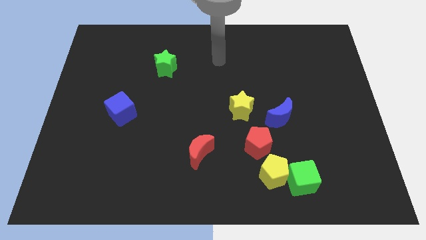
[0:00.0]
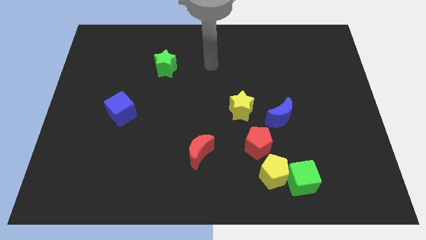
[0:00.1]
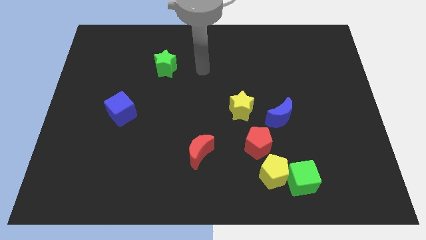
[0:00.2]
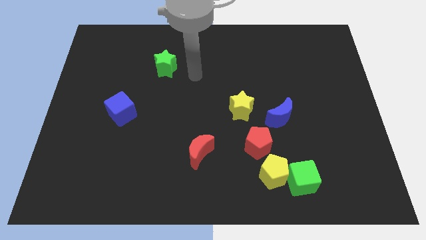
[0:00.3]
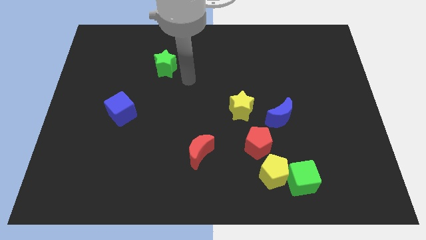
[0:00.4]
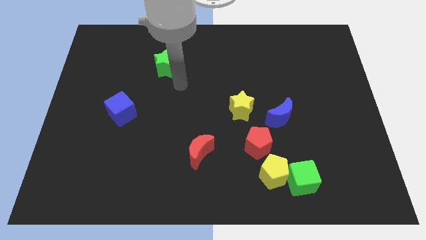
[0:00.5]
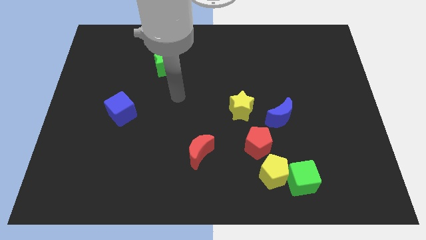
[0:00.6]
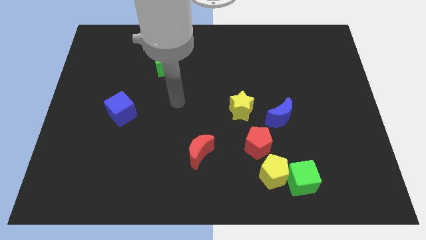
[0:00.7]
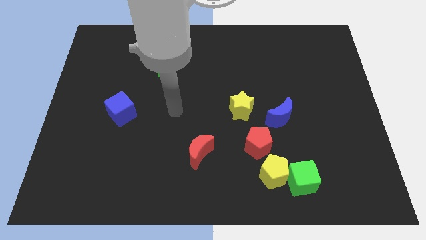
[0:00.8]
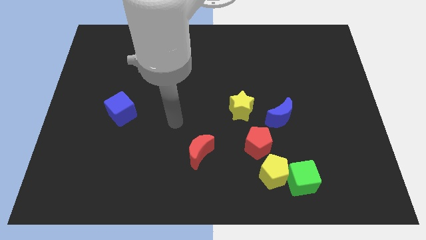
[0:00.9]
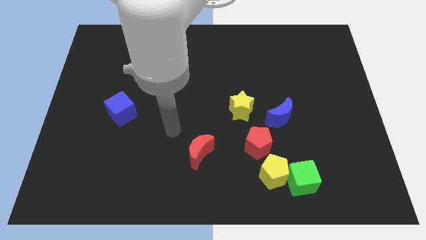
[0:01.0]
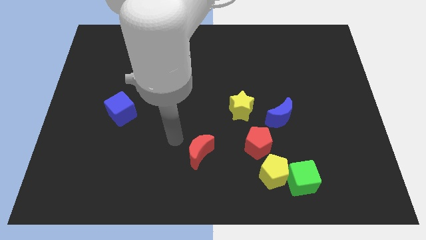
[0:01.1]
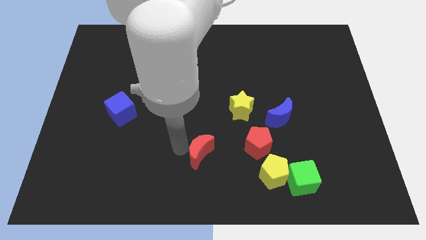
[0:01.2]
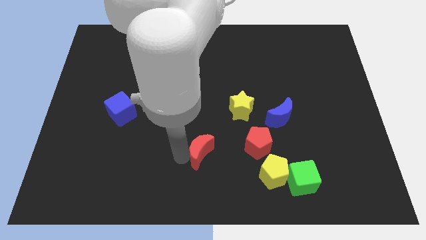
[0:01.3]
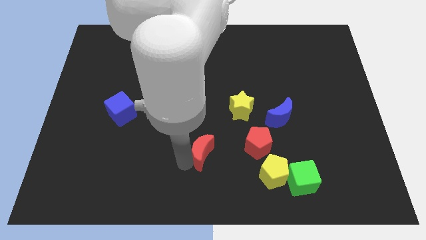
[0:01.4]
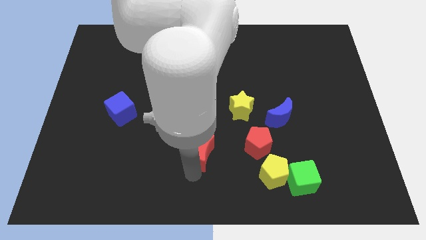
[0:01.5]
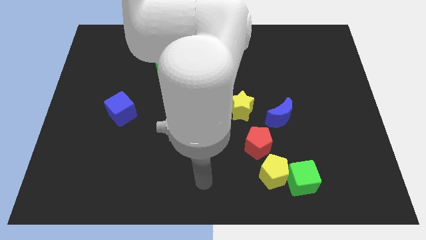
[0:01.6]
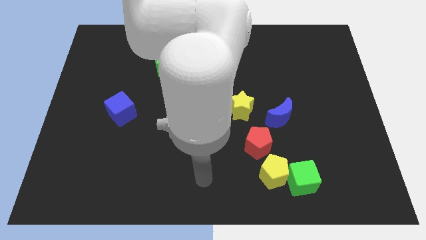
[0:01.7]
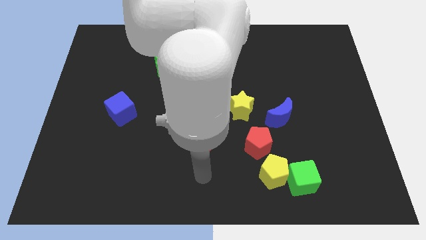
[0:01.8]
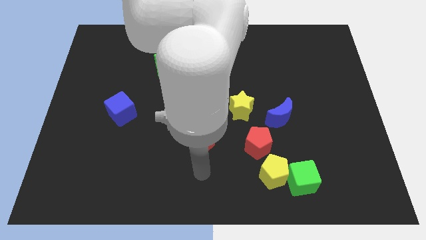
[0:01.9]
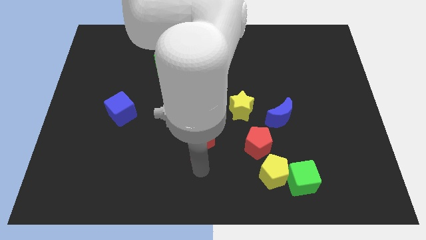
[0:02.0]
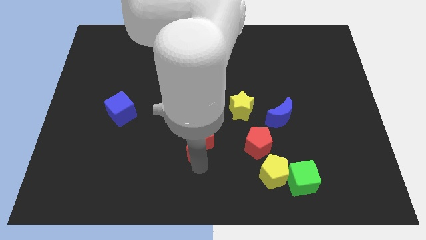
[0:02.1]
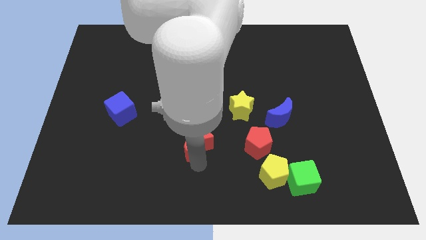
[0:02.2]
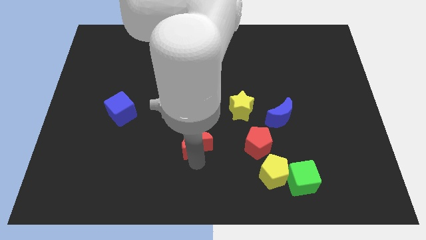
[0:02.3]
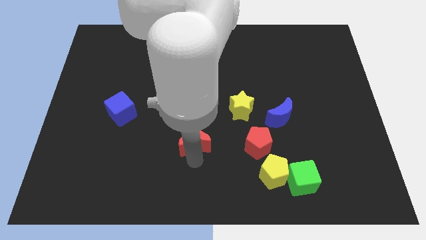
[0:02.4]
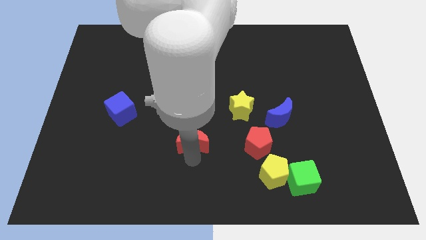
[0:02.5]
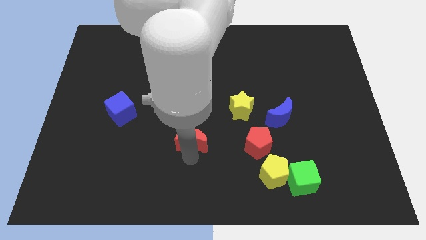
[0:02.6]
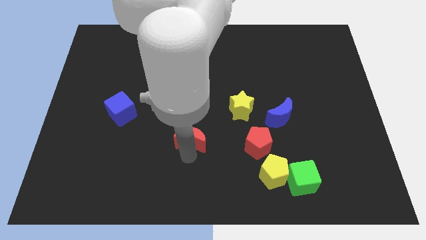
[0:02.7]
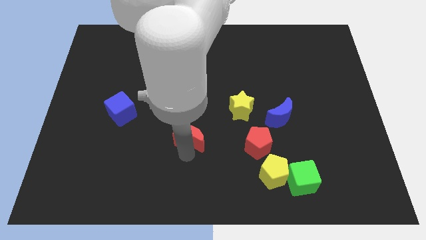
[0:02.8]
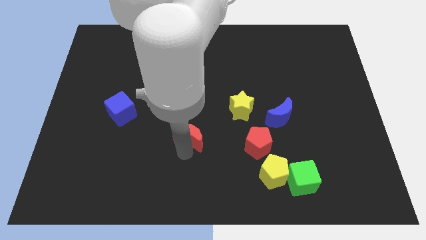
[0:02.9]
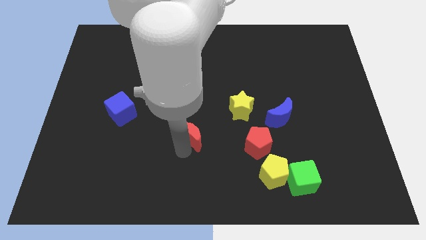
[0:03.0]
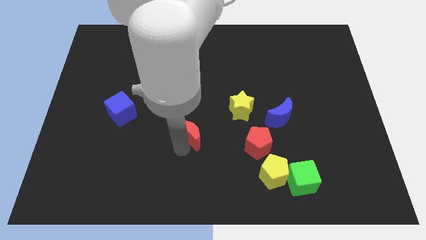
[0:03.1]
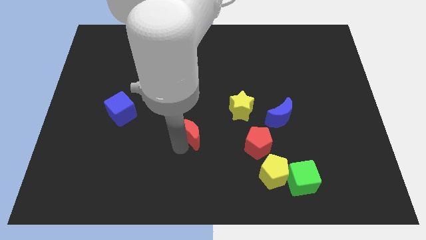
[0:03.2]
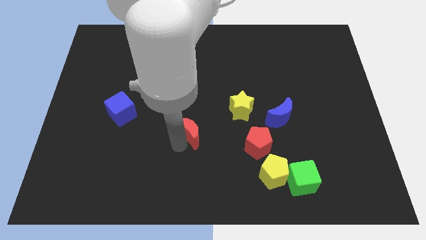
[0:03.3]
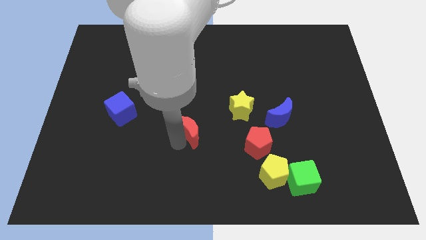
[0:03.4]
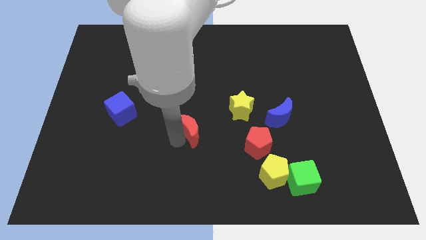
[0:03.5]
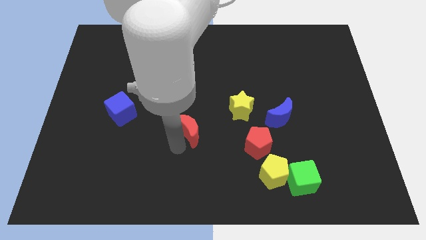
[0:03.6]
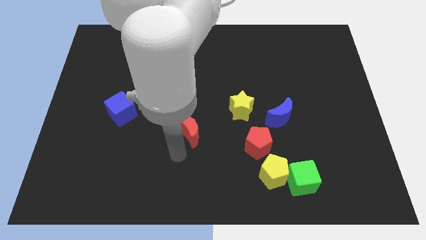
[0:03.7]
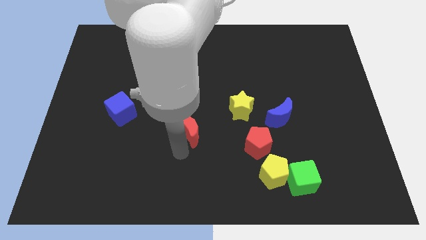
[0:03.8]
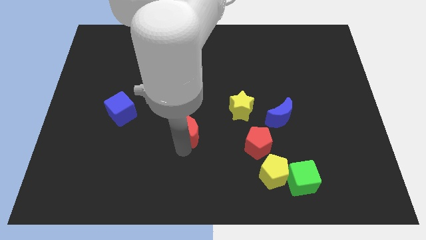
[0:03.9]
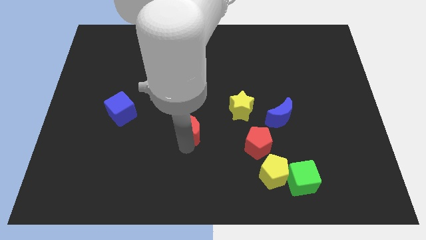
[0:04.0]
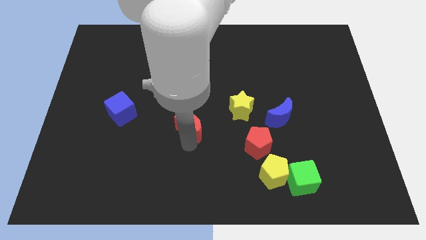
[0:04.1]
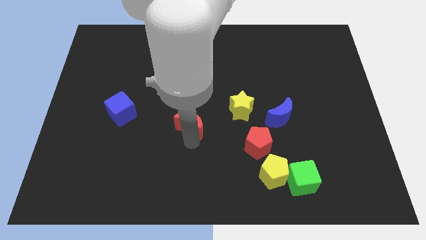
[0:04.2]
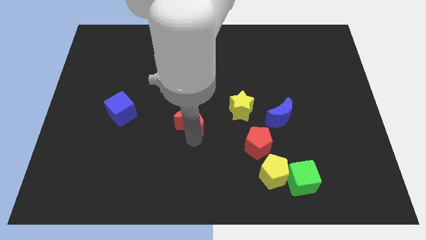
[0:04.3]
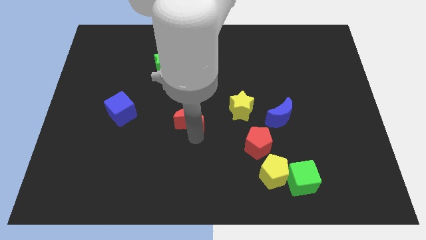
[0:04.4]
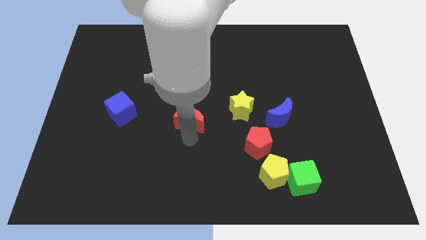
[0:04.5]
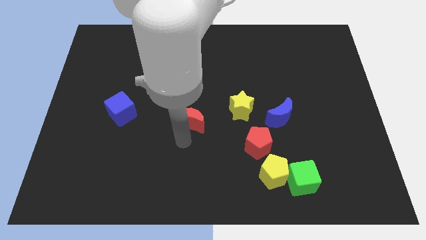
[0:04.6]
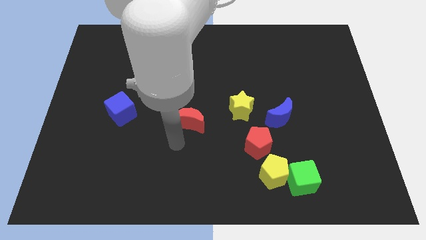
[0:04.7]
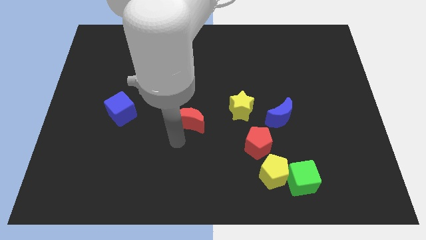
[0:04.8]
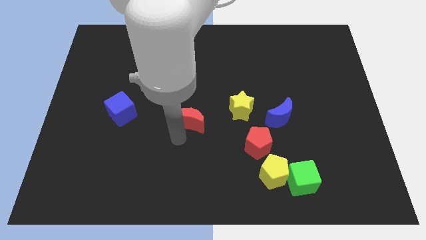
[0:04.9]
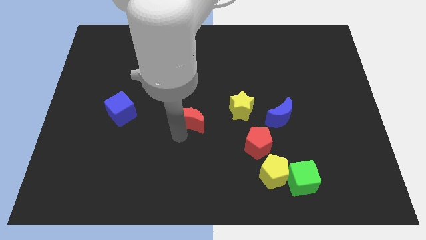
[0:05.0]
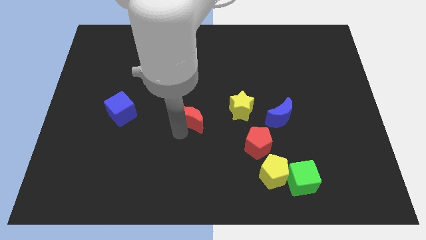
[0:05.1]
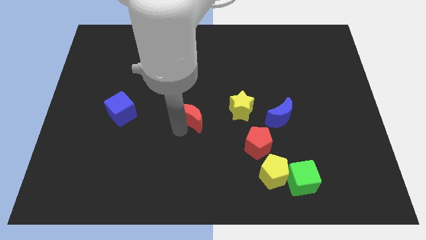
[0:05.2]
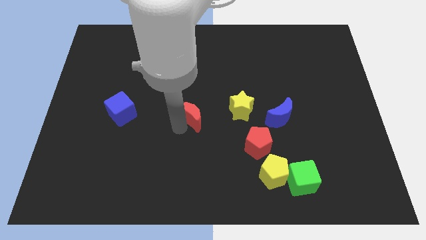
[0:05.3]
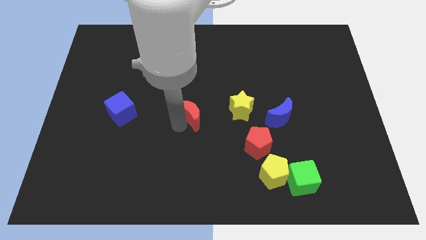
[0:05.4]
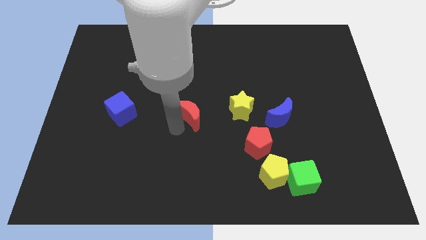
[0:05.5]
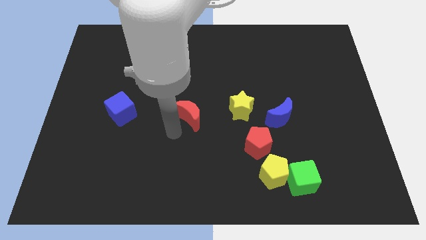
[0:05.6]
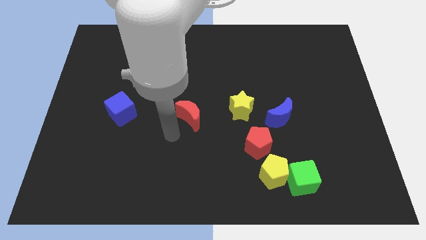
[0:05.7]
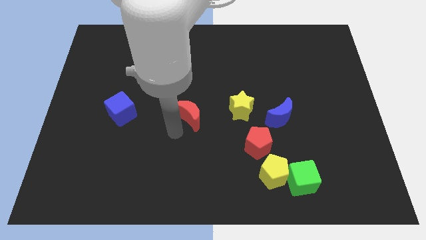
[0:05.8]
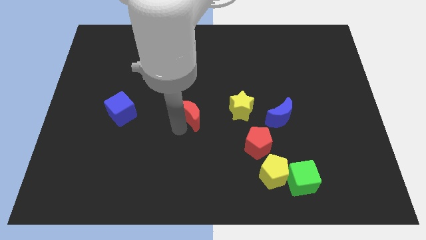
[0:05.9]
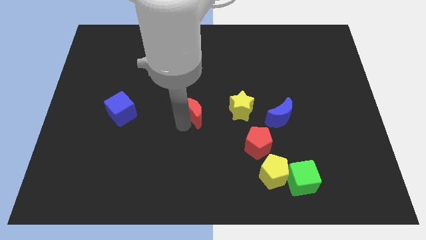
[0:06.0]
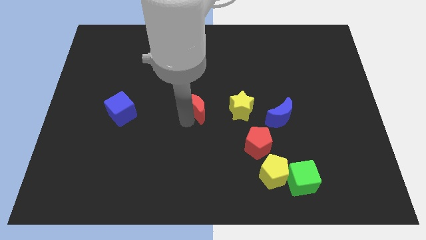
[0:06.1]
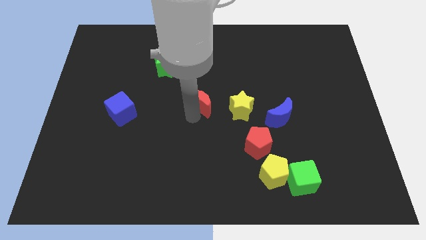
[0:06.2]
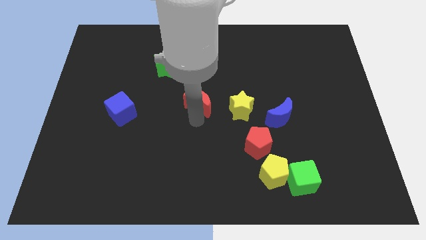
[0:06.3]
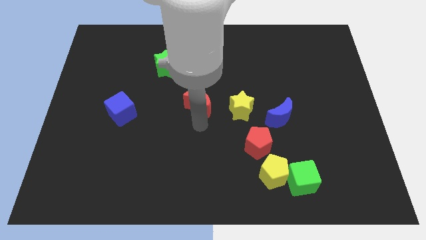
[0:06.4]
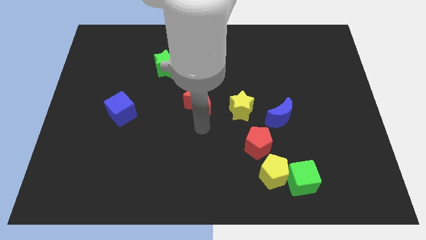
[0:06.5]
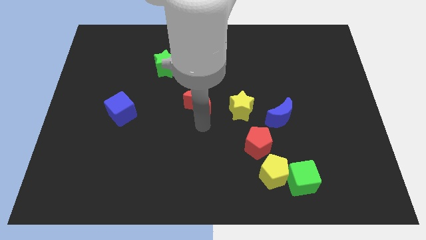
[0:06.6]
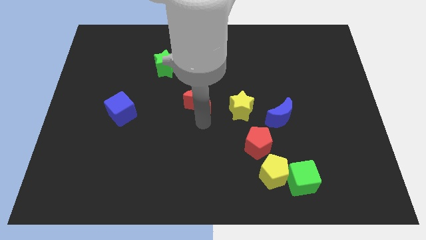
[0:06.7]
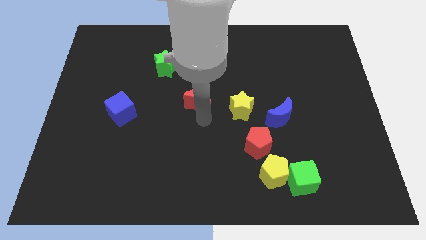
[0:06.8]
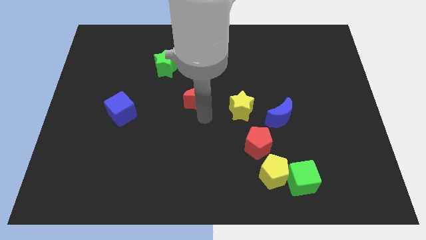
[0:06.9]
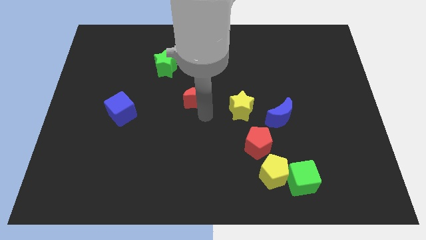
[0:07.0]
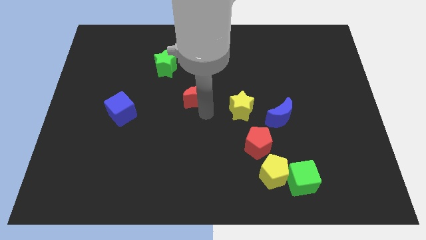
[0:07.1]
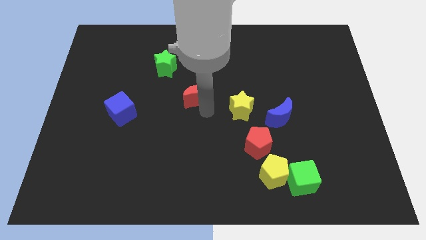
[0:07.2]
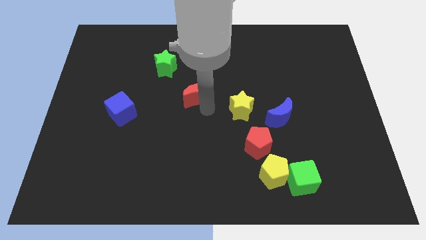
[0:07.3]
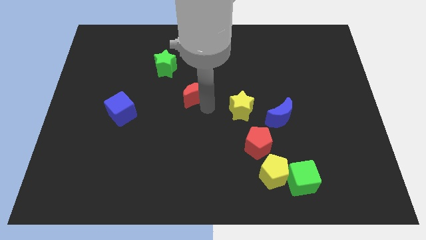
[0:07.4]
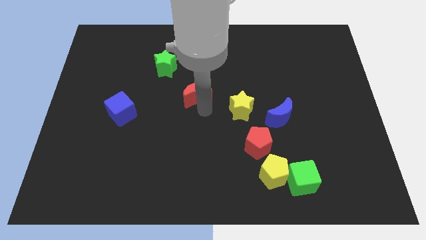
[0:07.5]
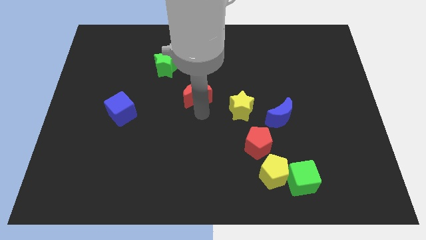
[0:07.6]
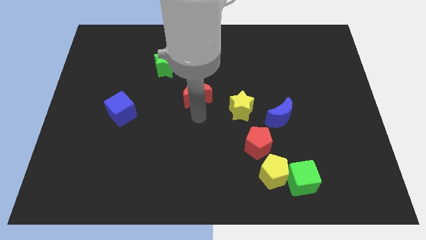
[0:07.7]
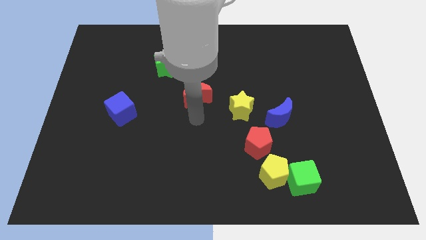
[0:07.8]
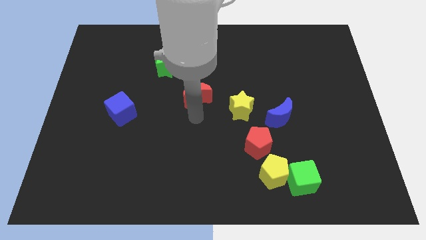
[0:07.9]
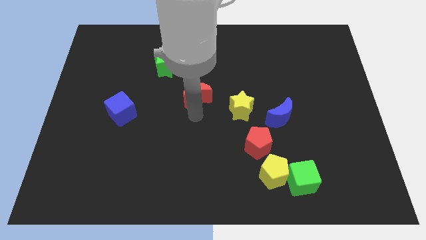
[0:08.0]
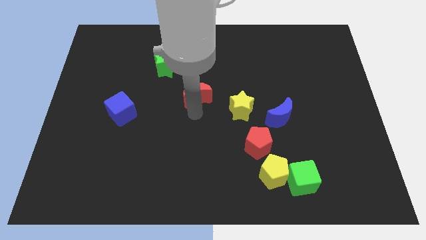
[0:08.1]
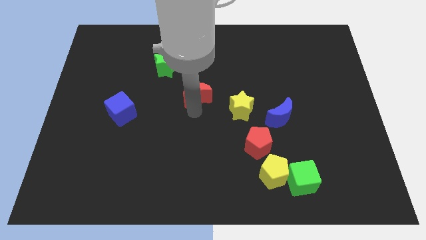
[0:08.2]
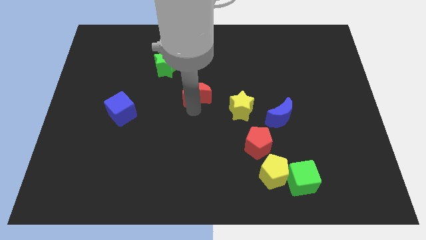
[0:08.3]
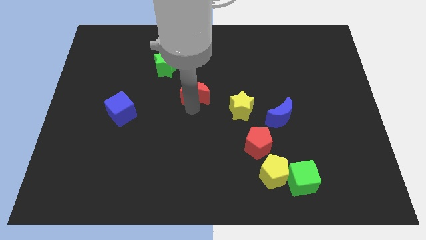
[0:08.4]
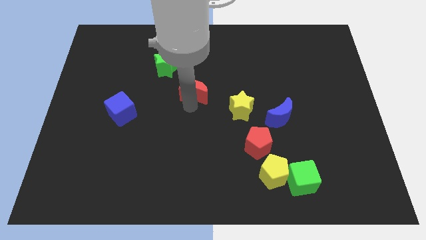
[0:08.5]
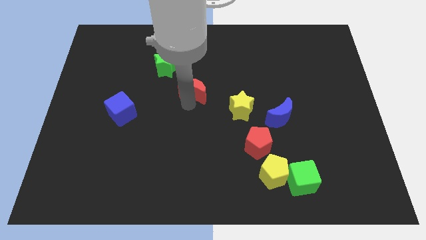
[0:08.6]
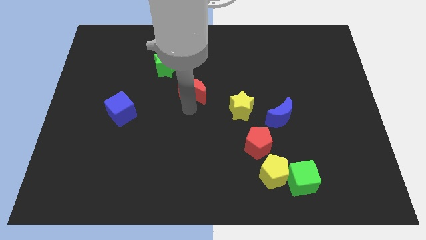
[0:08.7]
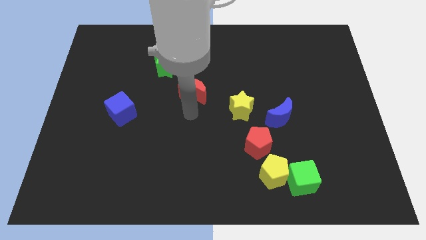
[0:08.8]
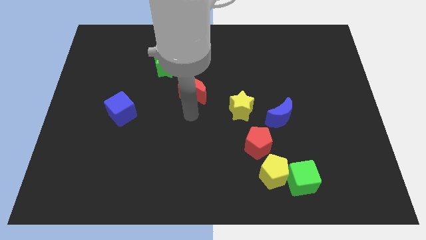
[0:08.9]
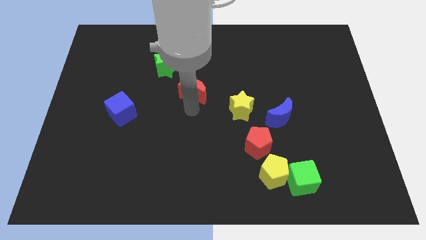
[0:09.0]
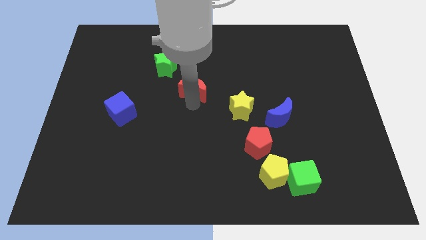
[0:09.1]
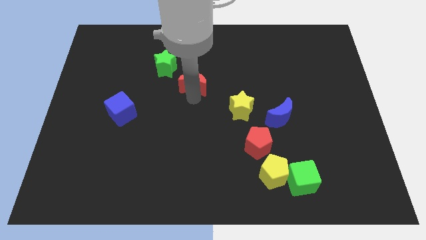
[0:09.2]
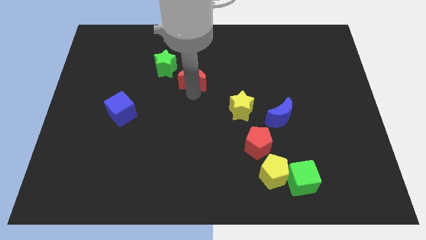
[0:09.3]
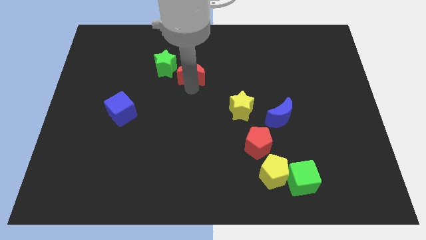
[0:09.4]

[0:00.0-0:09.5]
slide the red moon to the right of the green star
